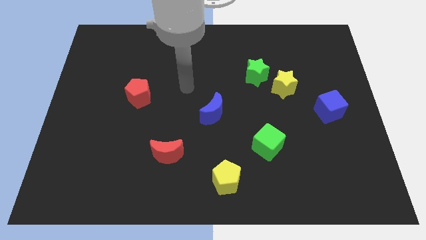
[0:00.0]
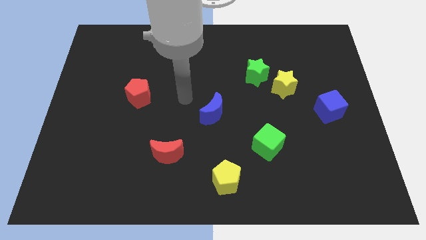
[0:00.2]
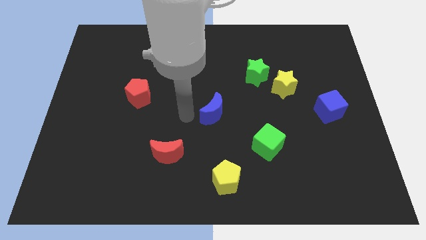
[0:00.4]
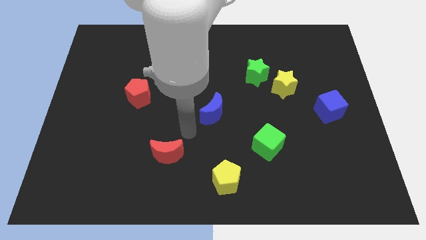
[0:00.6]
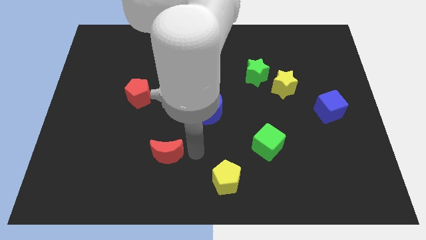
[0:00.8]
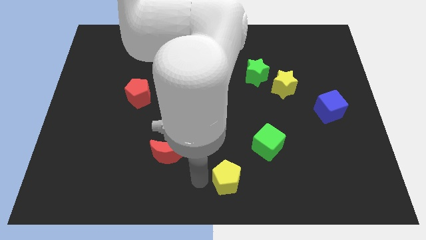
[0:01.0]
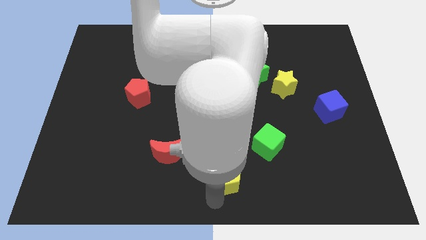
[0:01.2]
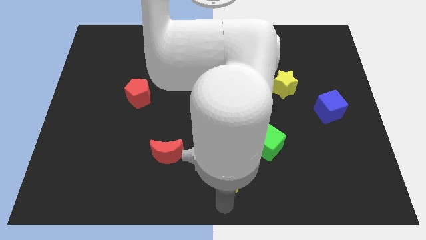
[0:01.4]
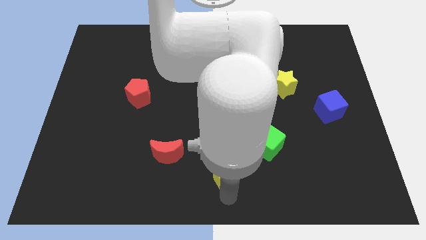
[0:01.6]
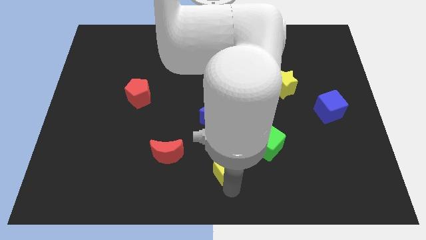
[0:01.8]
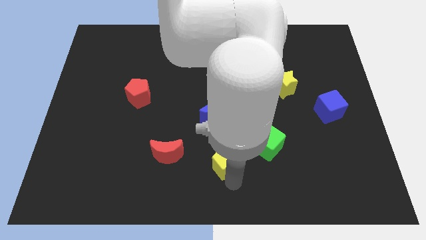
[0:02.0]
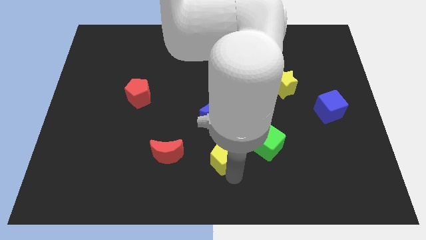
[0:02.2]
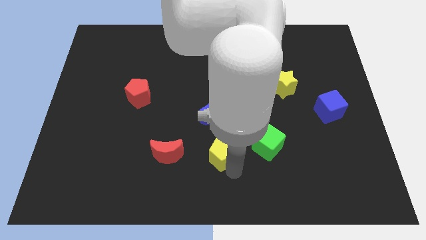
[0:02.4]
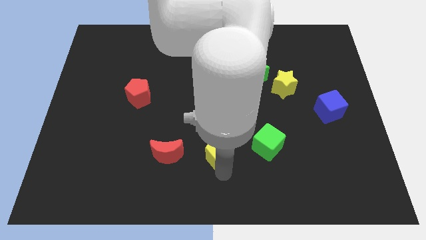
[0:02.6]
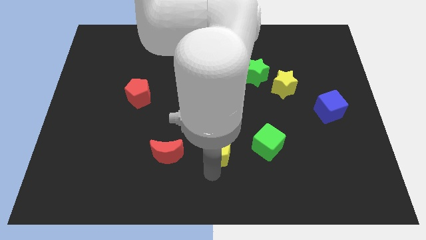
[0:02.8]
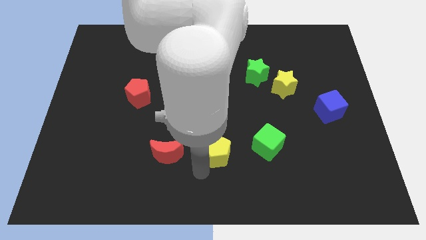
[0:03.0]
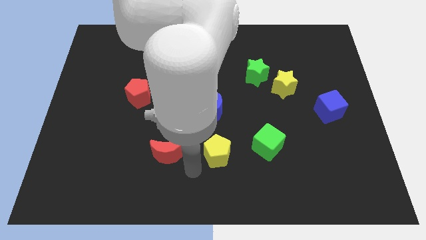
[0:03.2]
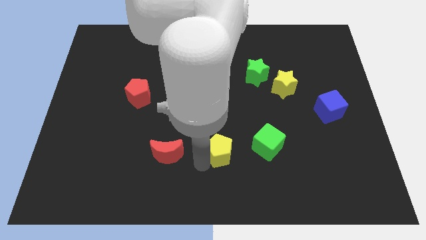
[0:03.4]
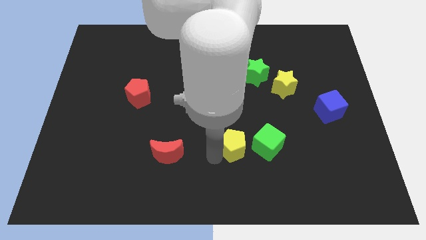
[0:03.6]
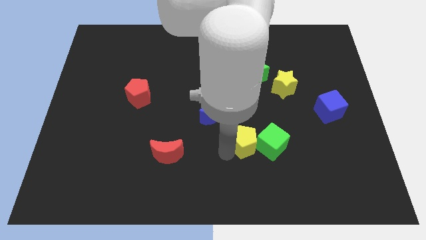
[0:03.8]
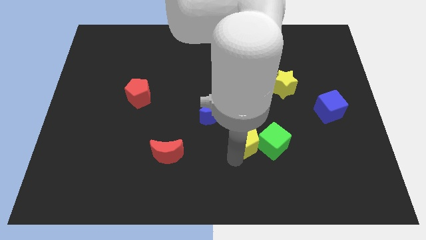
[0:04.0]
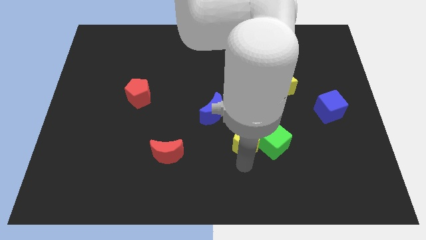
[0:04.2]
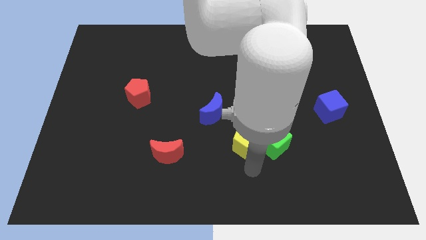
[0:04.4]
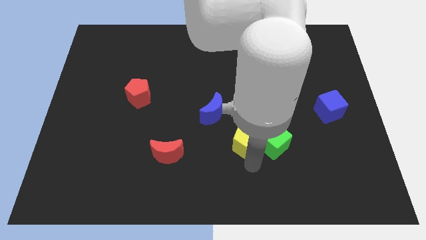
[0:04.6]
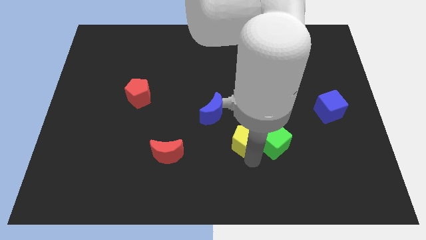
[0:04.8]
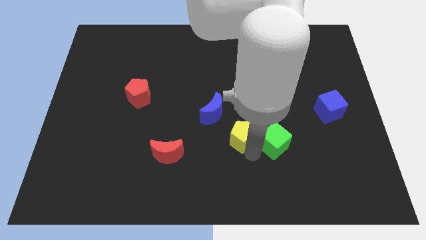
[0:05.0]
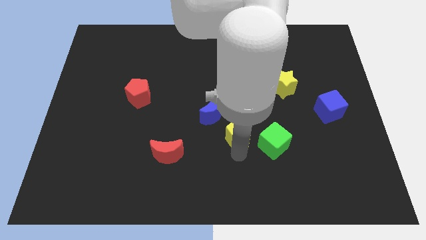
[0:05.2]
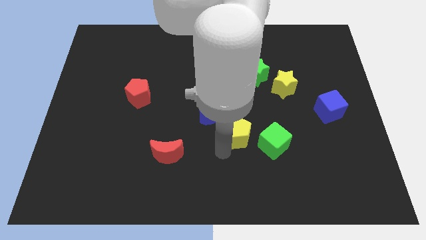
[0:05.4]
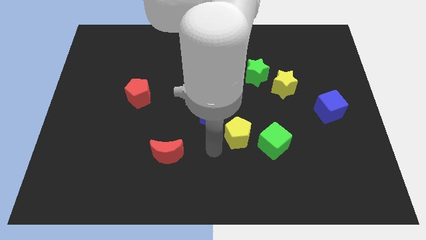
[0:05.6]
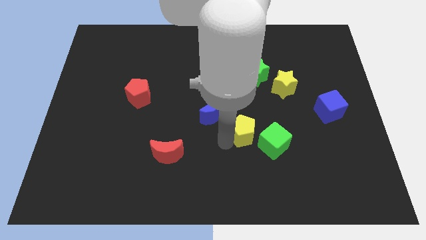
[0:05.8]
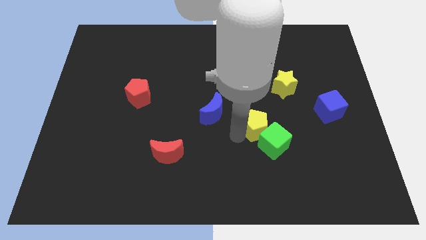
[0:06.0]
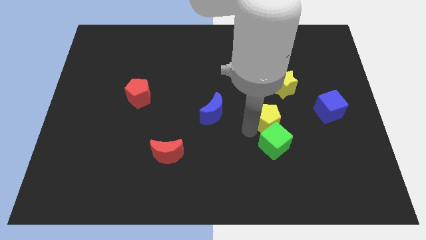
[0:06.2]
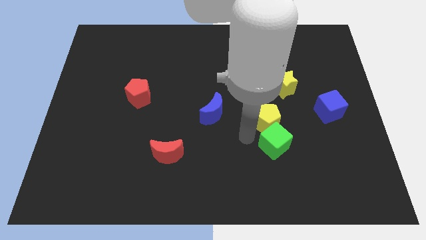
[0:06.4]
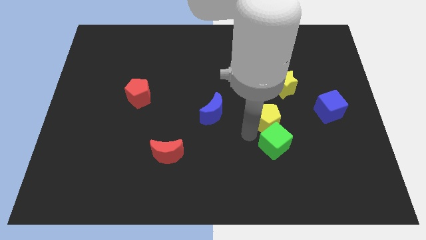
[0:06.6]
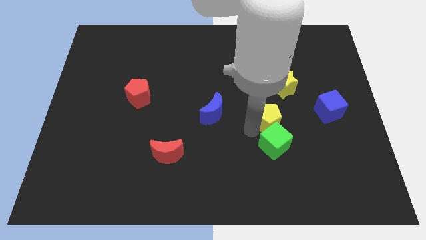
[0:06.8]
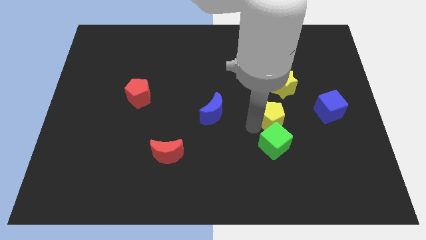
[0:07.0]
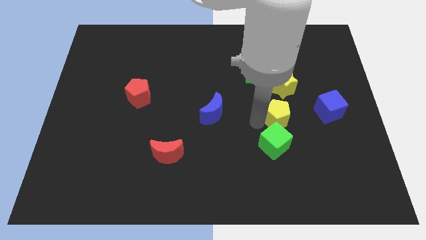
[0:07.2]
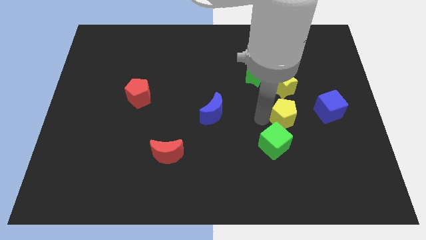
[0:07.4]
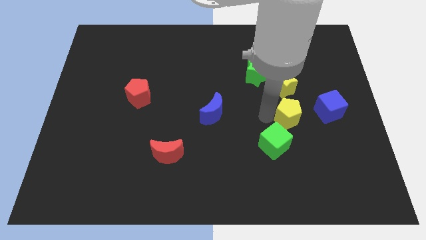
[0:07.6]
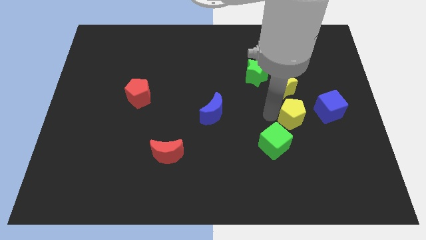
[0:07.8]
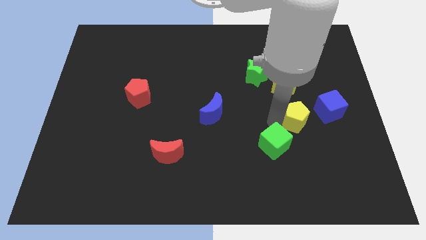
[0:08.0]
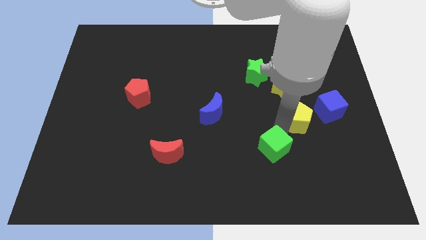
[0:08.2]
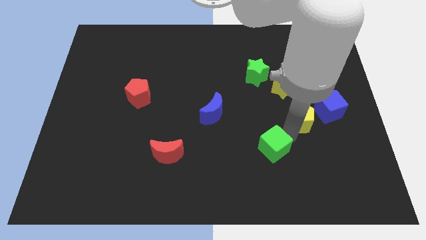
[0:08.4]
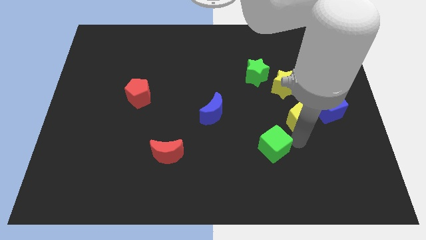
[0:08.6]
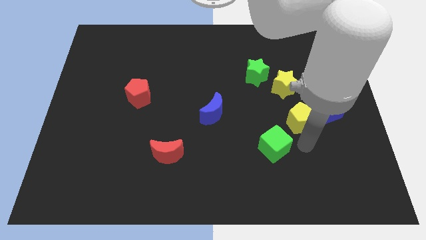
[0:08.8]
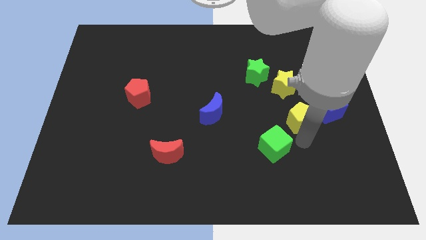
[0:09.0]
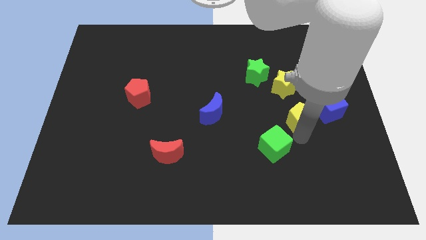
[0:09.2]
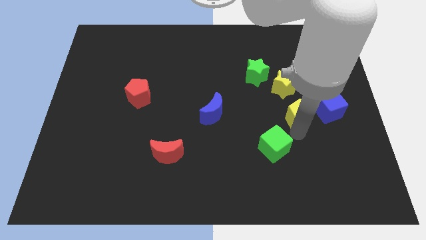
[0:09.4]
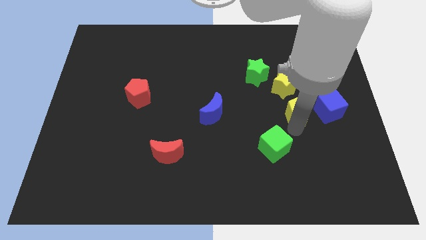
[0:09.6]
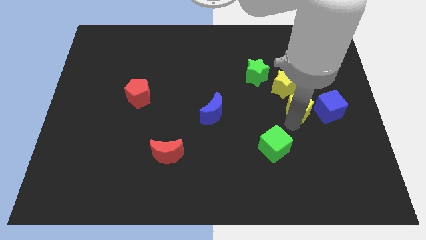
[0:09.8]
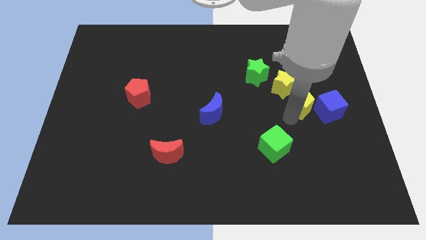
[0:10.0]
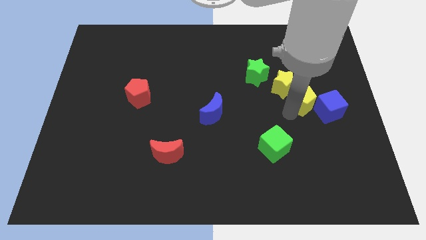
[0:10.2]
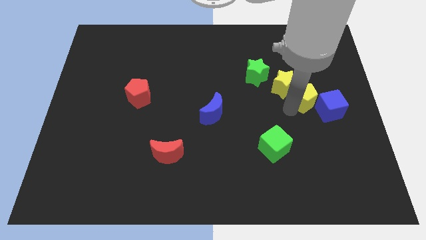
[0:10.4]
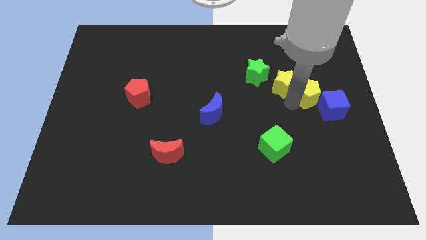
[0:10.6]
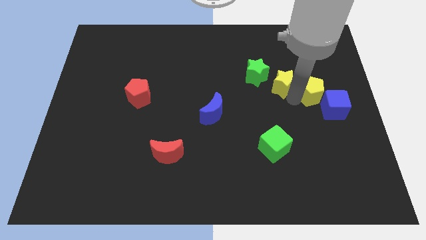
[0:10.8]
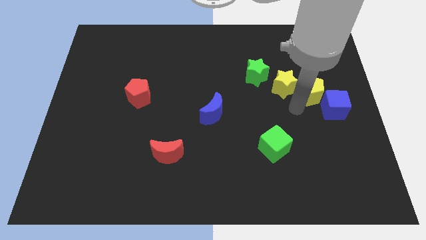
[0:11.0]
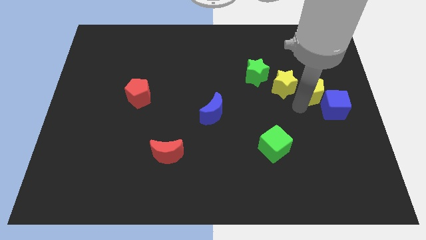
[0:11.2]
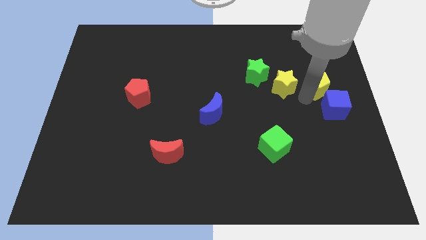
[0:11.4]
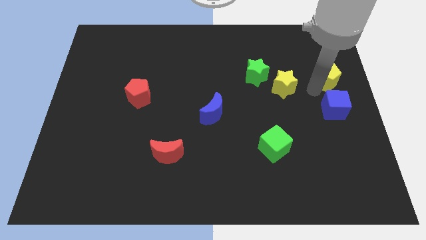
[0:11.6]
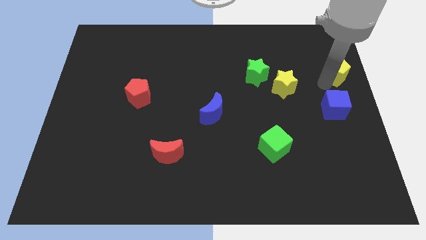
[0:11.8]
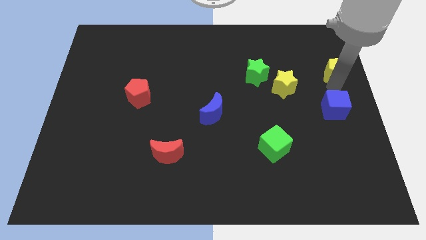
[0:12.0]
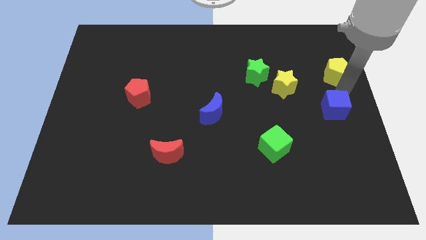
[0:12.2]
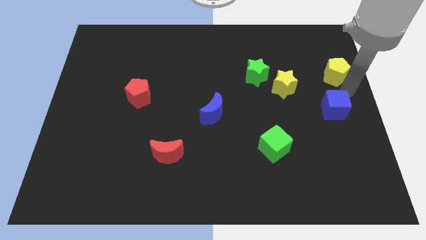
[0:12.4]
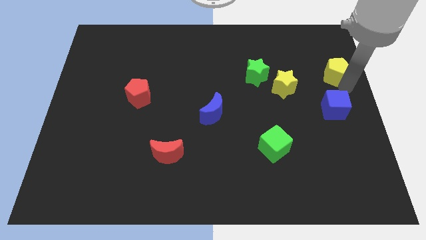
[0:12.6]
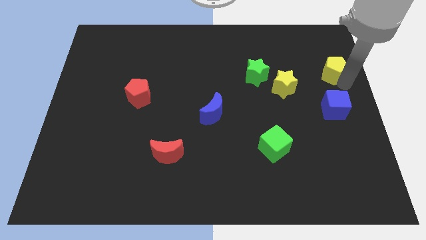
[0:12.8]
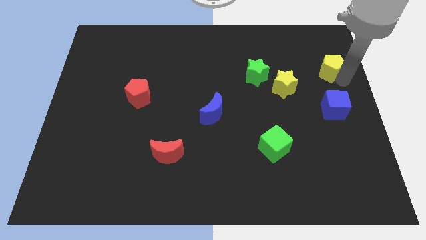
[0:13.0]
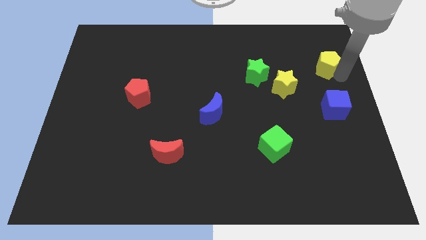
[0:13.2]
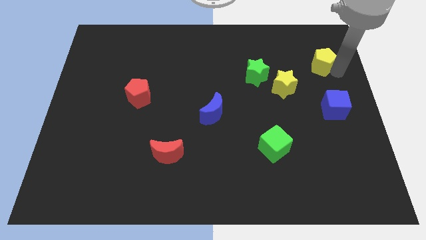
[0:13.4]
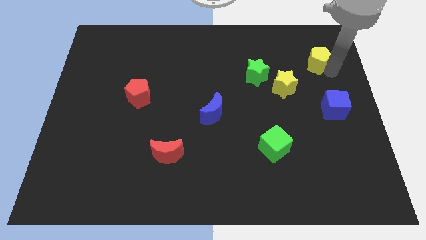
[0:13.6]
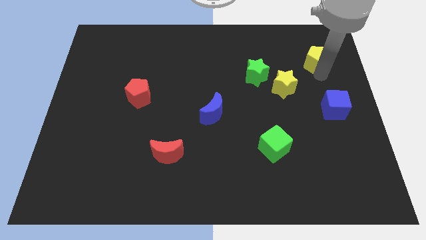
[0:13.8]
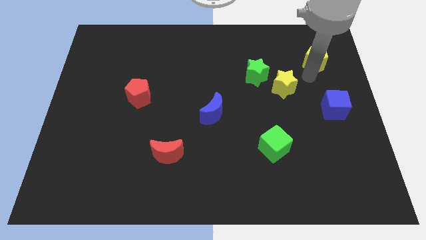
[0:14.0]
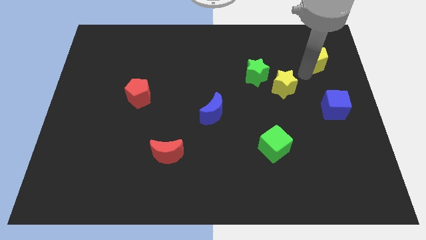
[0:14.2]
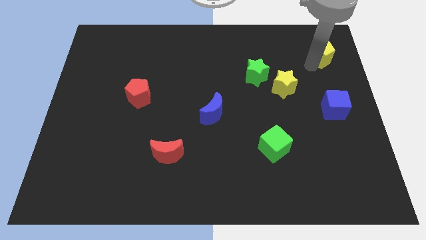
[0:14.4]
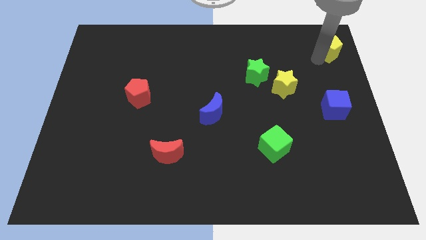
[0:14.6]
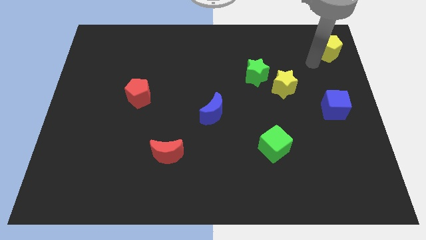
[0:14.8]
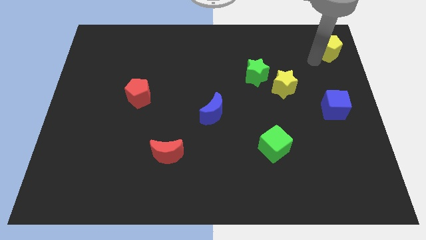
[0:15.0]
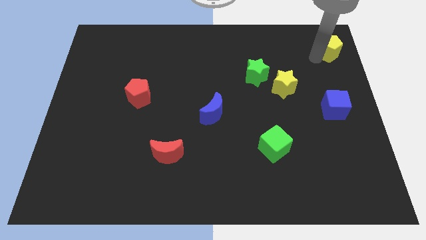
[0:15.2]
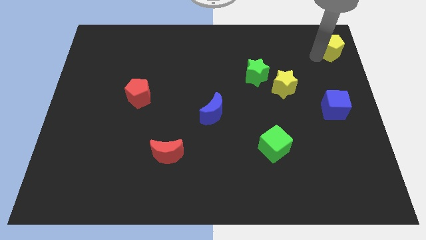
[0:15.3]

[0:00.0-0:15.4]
slide the yellow pentagon to the top right of the board
